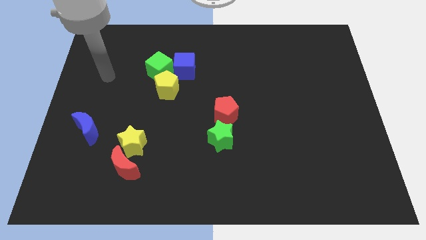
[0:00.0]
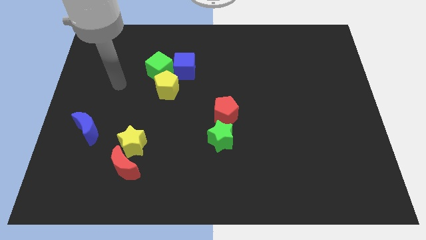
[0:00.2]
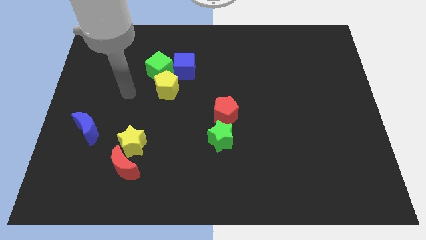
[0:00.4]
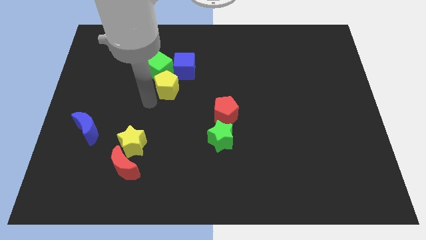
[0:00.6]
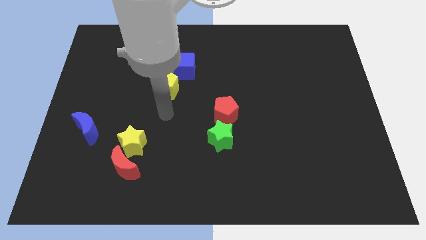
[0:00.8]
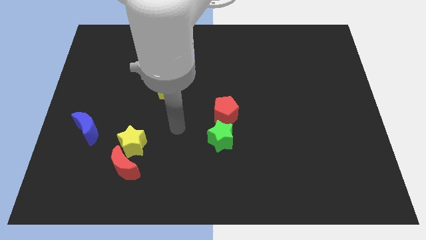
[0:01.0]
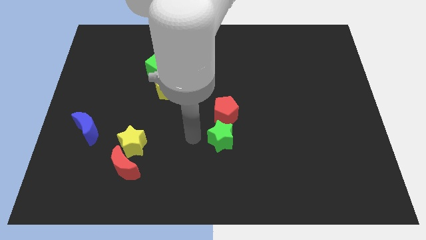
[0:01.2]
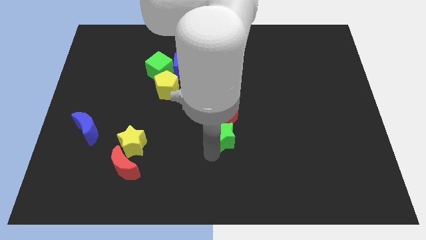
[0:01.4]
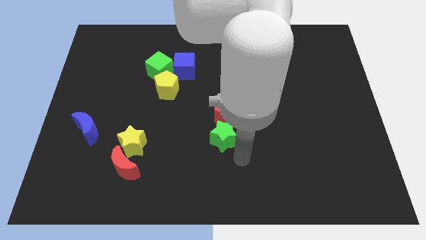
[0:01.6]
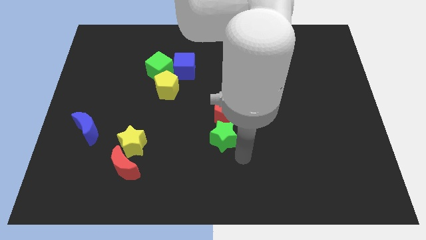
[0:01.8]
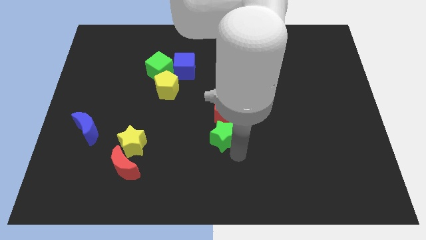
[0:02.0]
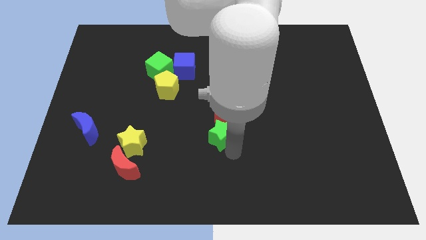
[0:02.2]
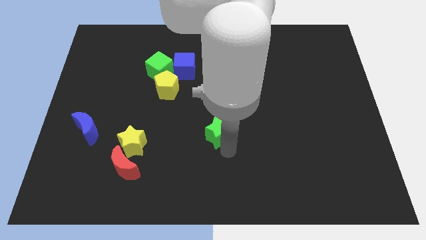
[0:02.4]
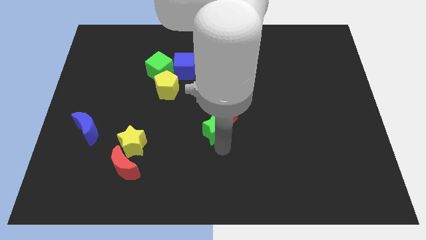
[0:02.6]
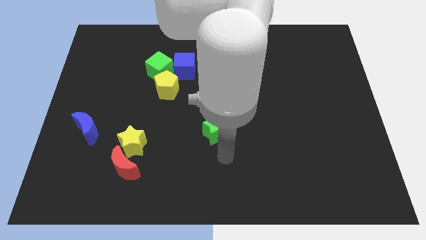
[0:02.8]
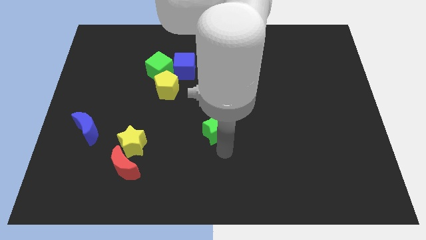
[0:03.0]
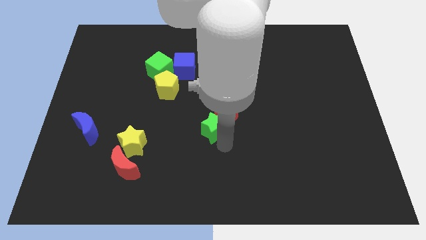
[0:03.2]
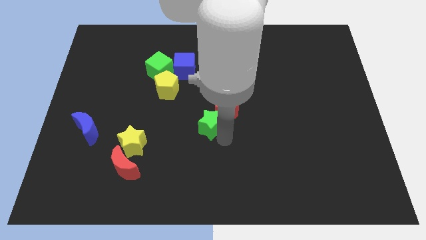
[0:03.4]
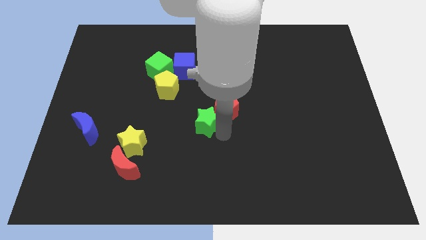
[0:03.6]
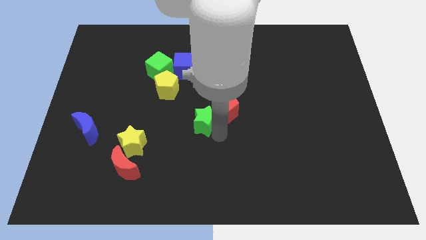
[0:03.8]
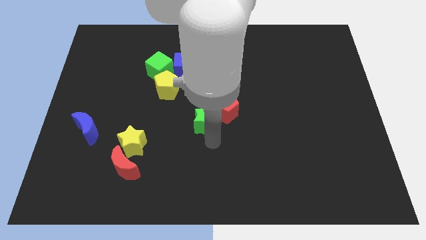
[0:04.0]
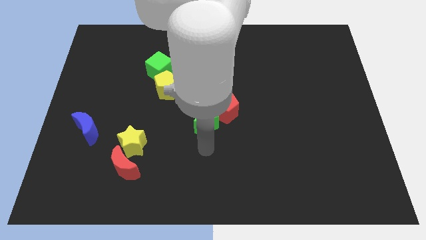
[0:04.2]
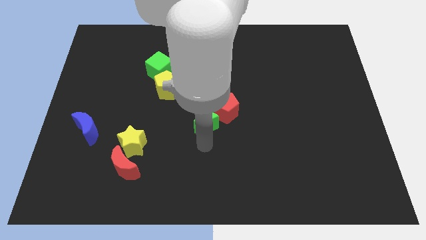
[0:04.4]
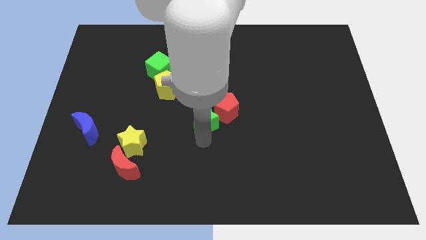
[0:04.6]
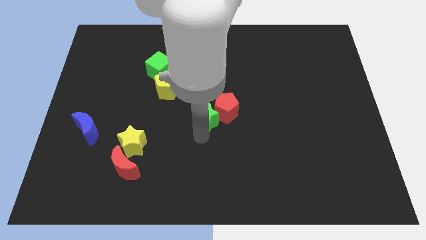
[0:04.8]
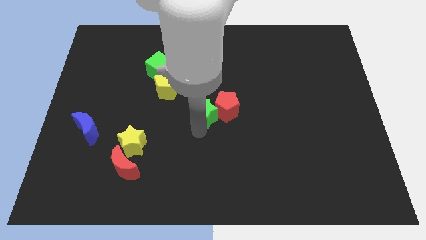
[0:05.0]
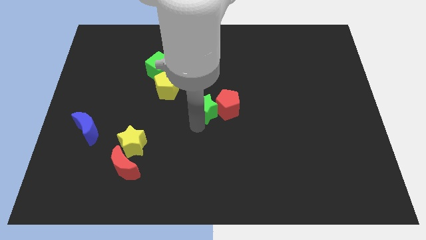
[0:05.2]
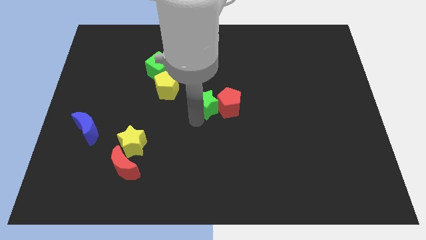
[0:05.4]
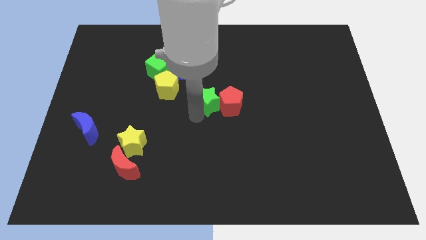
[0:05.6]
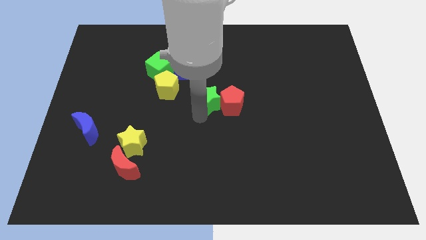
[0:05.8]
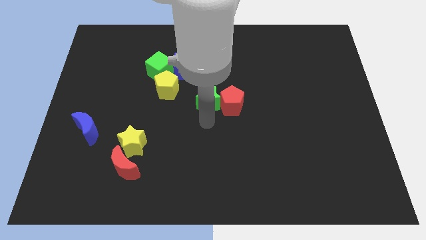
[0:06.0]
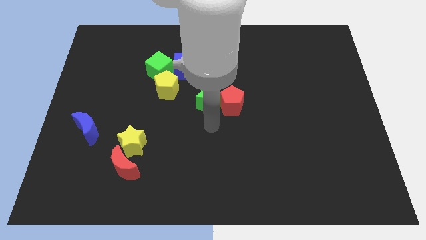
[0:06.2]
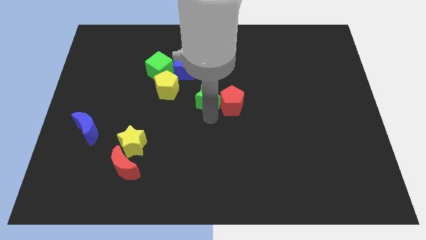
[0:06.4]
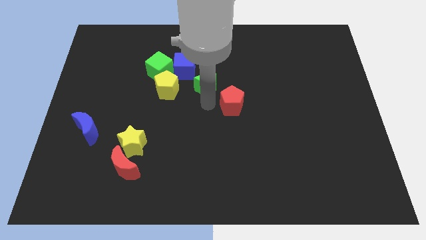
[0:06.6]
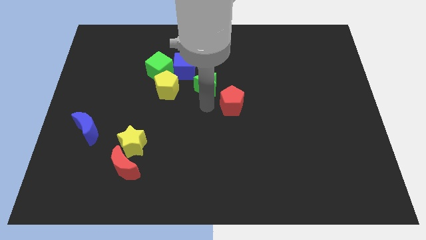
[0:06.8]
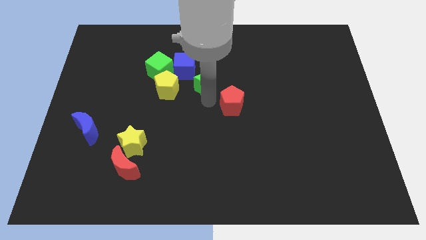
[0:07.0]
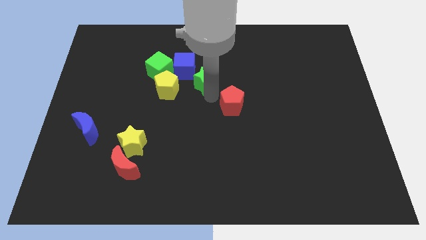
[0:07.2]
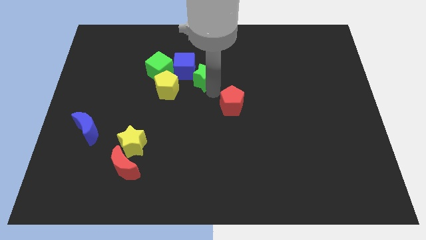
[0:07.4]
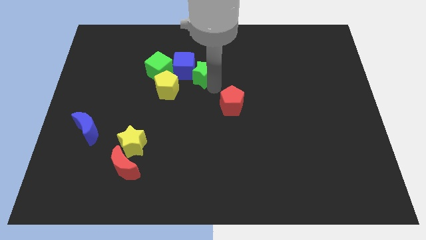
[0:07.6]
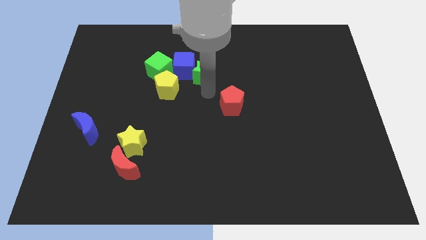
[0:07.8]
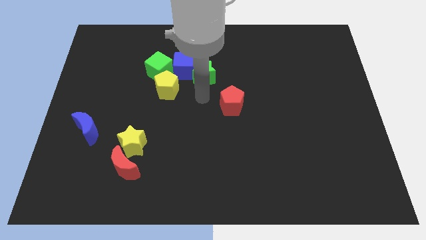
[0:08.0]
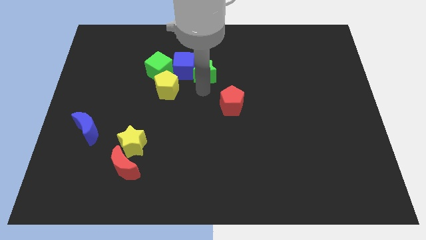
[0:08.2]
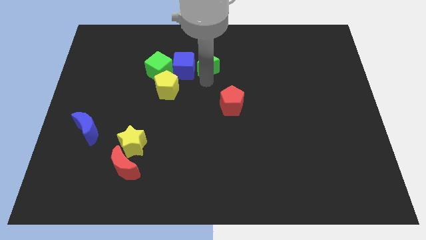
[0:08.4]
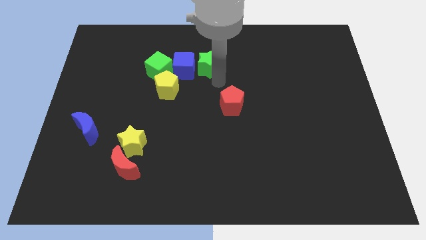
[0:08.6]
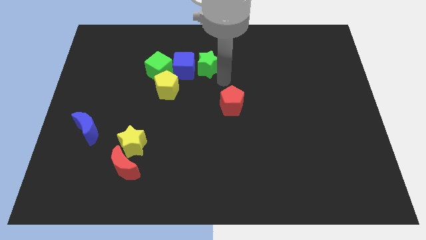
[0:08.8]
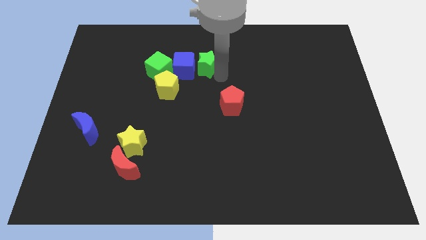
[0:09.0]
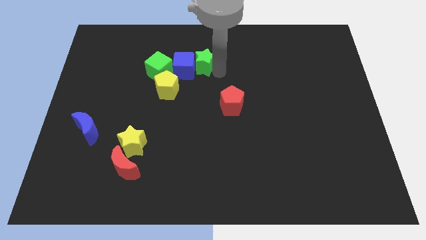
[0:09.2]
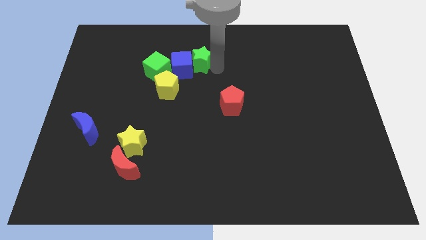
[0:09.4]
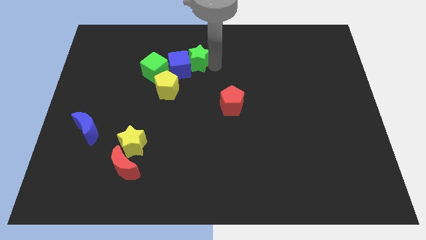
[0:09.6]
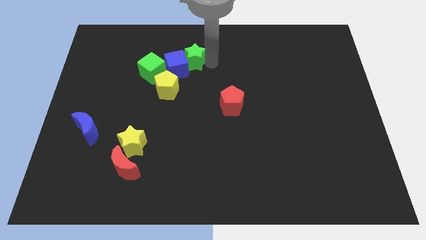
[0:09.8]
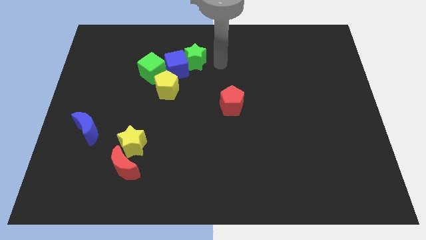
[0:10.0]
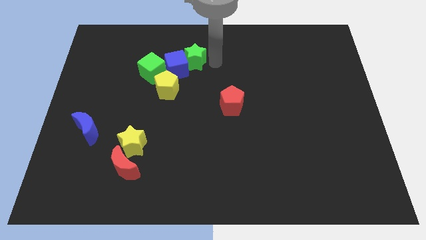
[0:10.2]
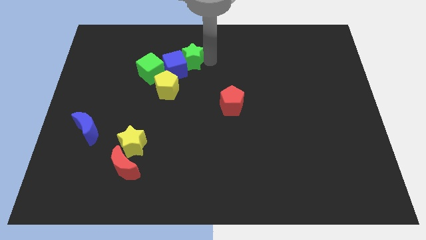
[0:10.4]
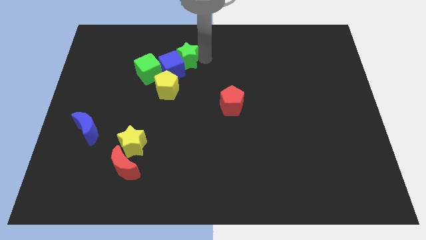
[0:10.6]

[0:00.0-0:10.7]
put the green star above the yellow pentagon

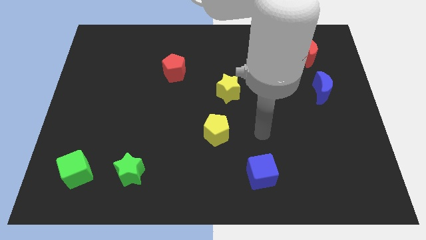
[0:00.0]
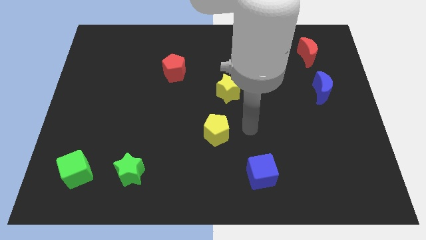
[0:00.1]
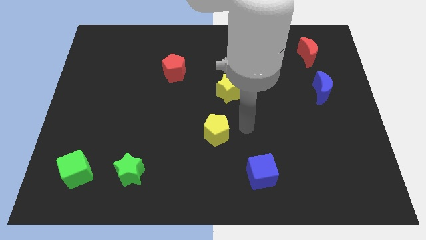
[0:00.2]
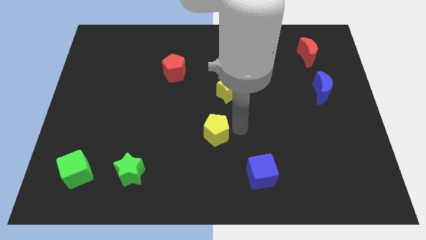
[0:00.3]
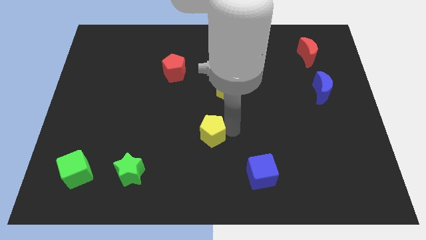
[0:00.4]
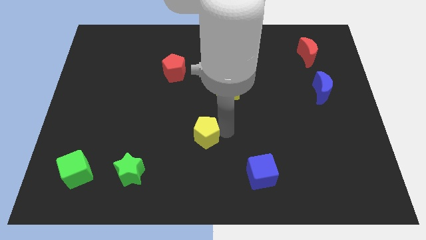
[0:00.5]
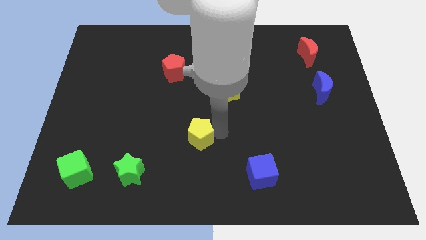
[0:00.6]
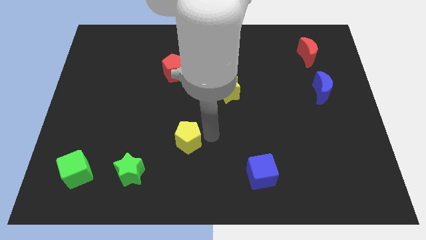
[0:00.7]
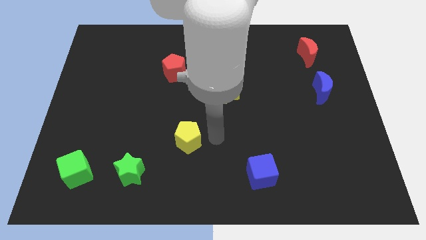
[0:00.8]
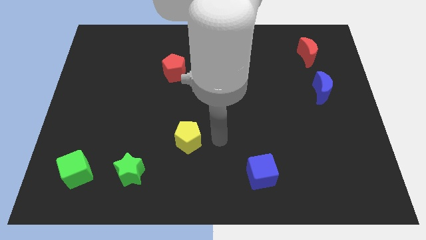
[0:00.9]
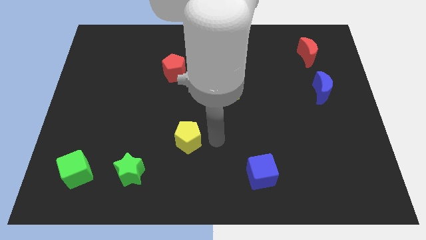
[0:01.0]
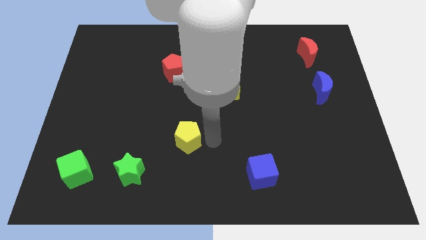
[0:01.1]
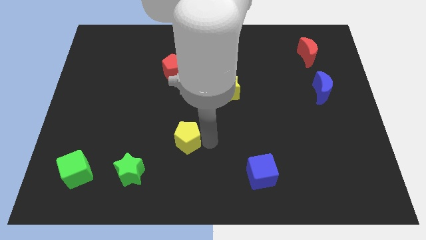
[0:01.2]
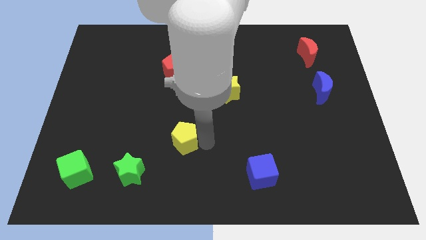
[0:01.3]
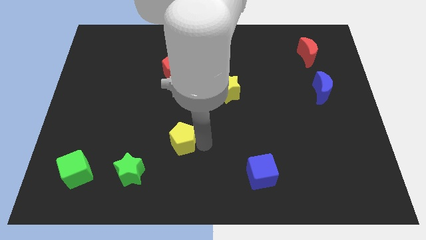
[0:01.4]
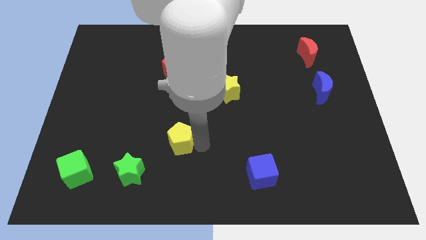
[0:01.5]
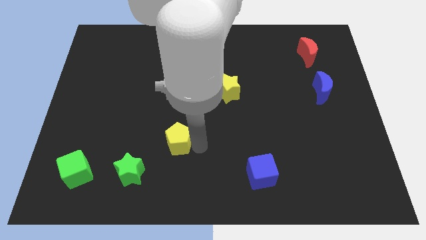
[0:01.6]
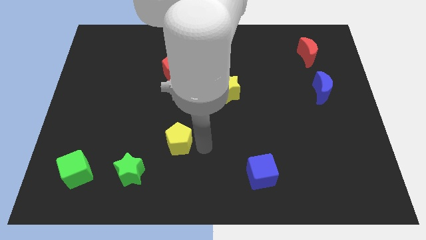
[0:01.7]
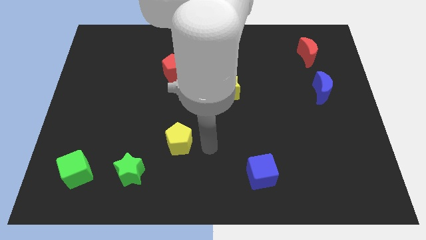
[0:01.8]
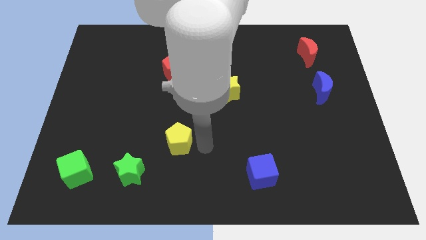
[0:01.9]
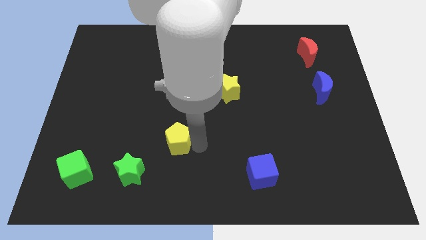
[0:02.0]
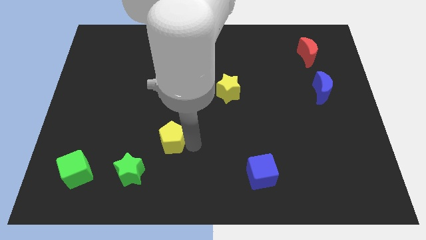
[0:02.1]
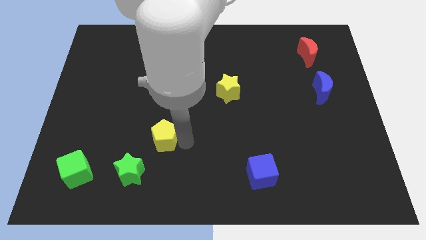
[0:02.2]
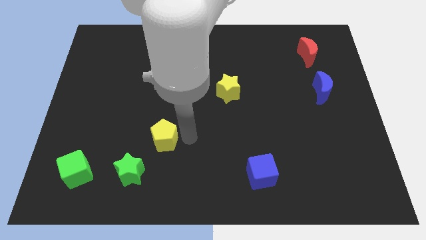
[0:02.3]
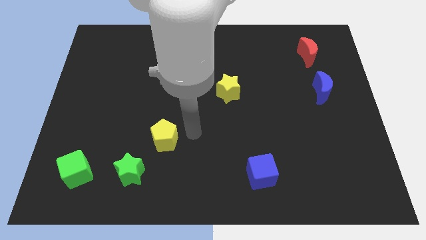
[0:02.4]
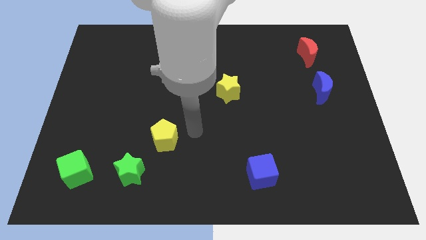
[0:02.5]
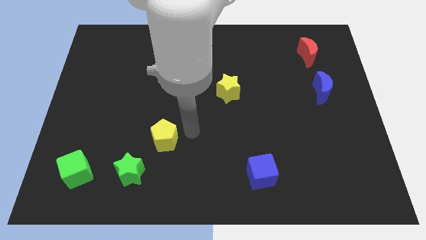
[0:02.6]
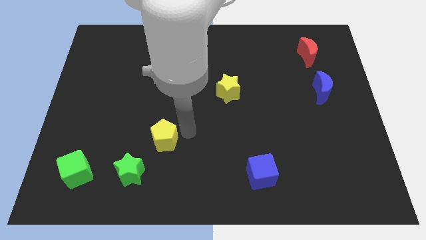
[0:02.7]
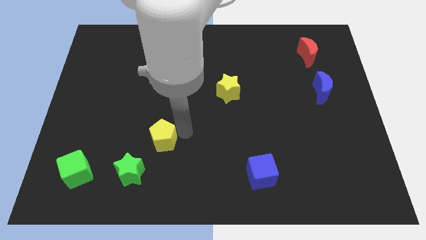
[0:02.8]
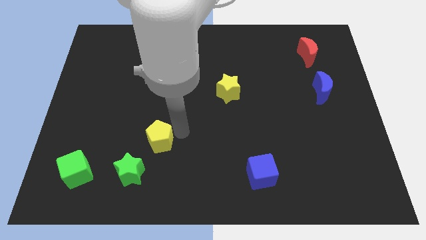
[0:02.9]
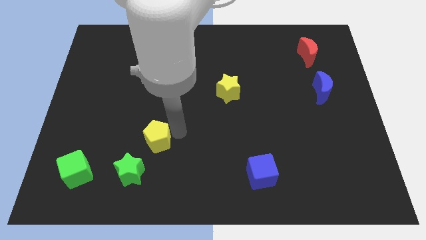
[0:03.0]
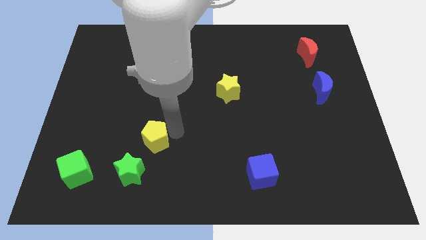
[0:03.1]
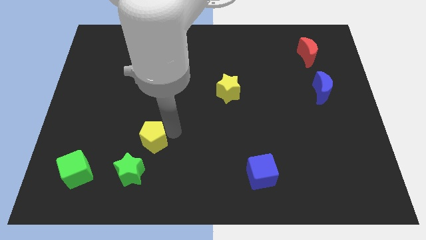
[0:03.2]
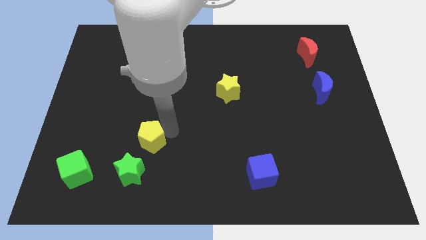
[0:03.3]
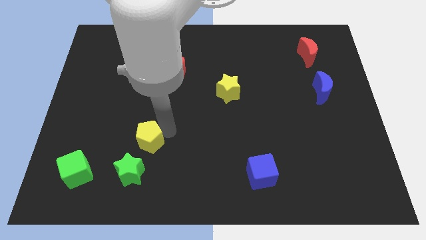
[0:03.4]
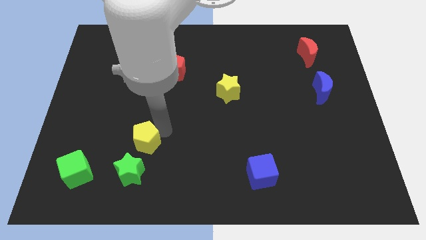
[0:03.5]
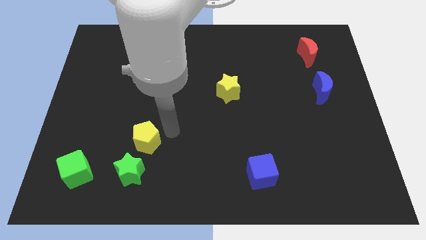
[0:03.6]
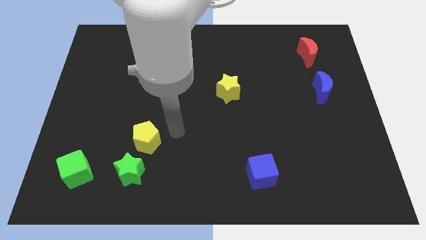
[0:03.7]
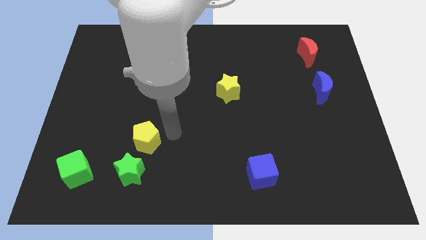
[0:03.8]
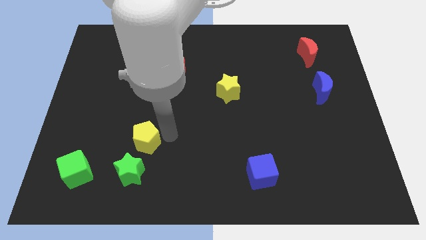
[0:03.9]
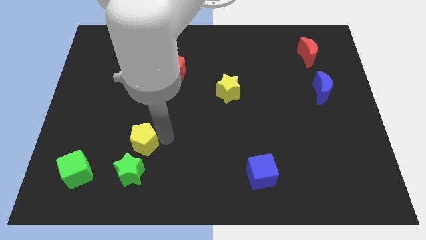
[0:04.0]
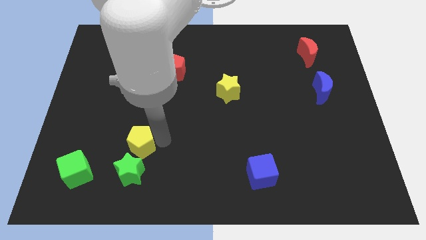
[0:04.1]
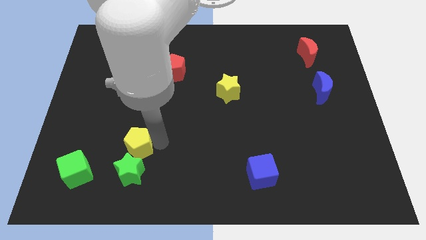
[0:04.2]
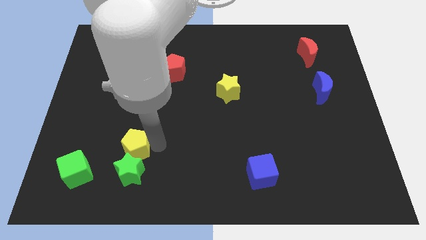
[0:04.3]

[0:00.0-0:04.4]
slide the yellow pentagon diagonally up and to the left of the green star
